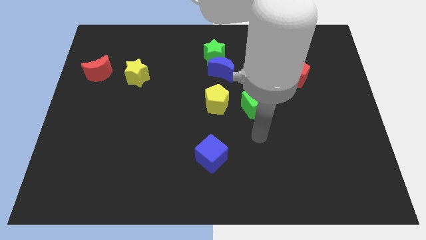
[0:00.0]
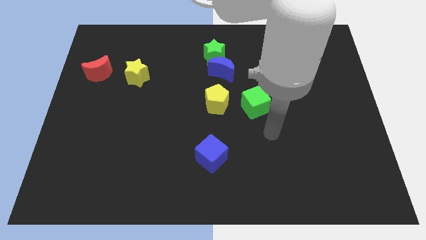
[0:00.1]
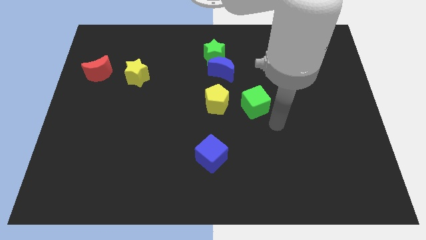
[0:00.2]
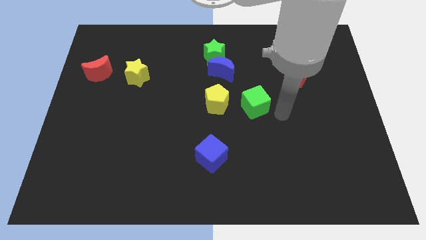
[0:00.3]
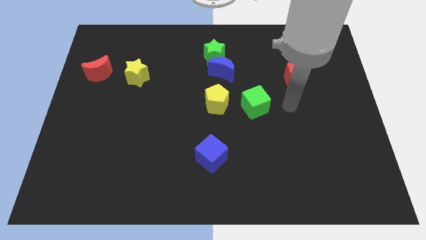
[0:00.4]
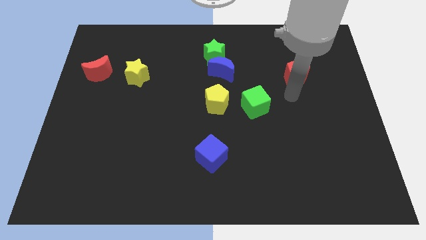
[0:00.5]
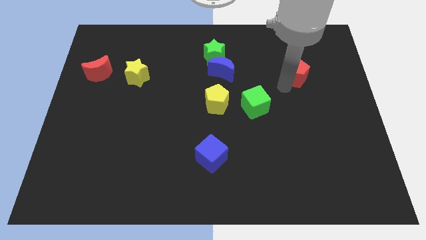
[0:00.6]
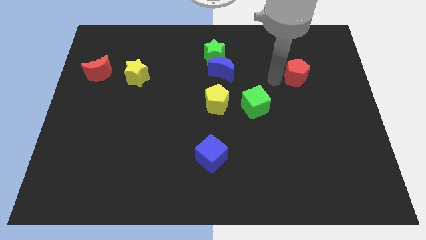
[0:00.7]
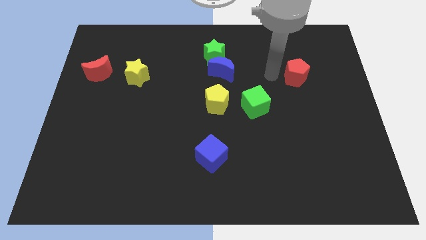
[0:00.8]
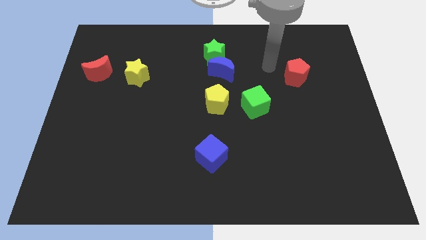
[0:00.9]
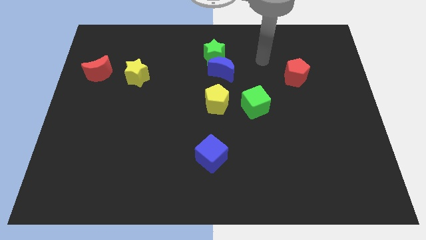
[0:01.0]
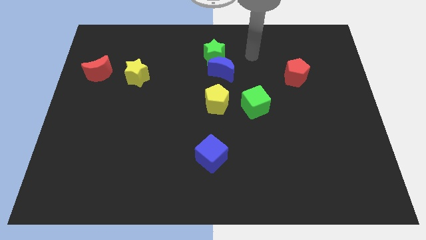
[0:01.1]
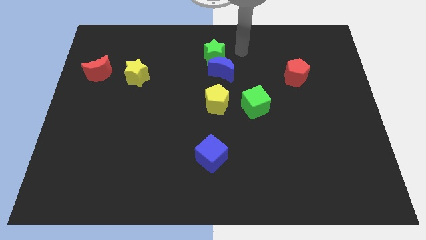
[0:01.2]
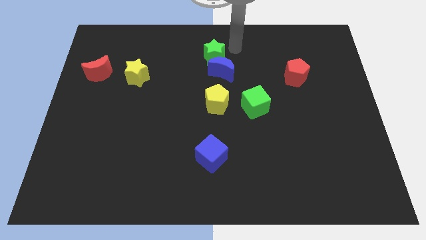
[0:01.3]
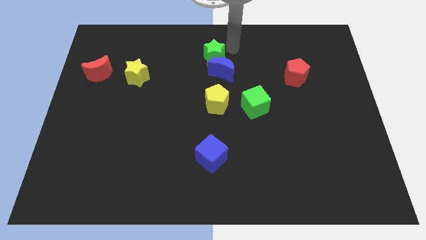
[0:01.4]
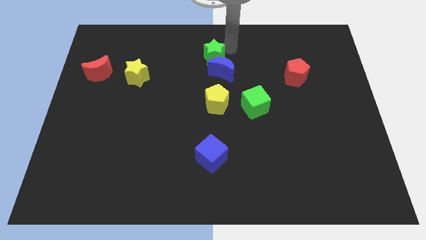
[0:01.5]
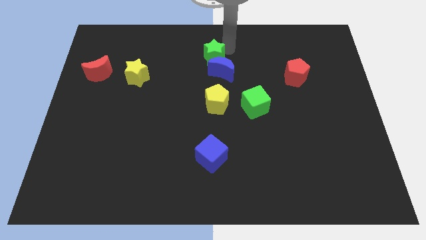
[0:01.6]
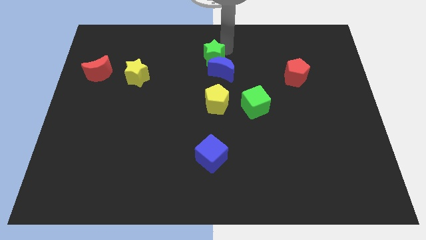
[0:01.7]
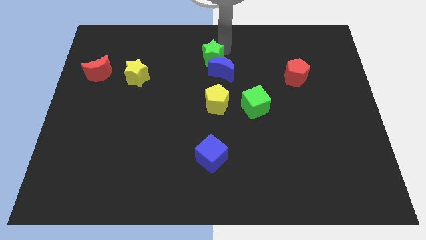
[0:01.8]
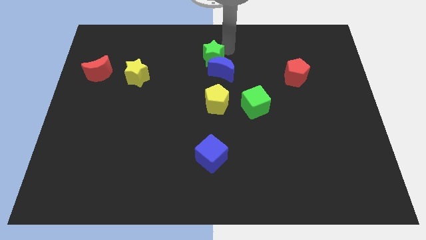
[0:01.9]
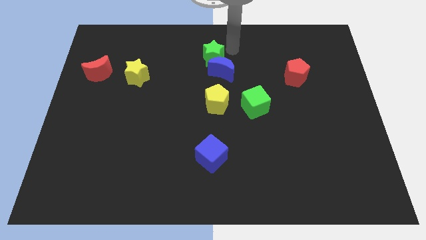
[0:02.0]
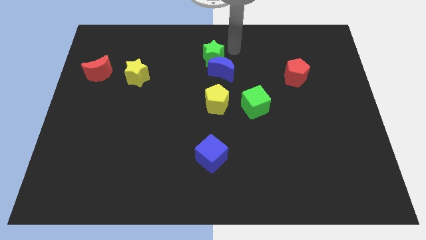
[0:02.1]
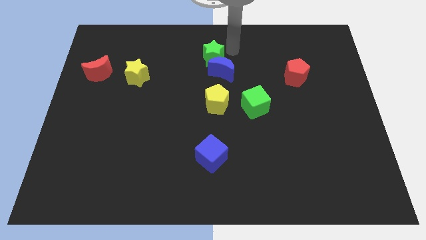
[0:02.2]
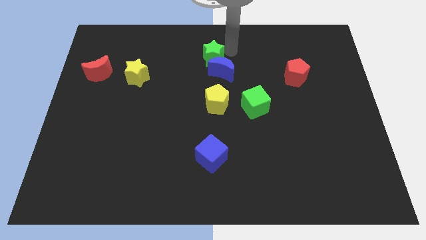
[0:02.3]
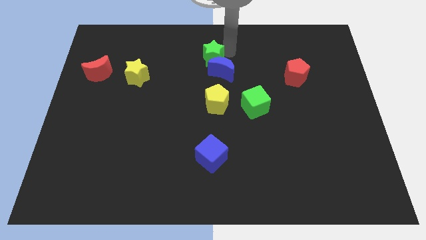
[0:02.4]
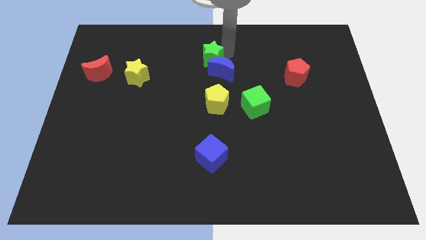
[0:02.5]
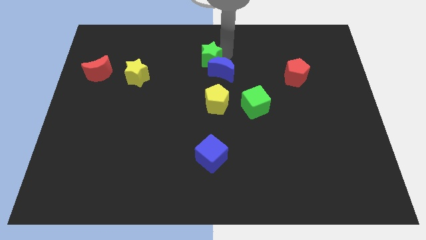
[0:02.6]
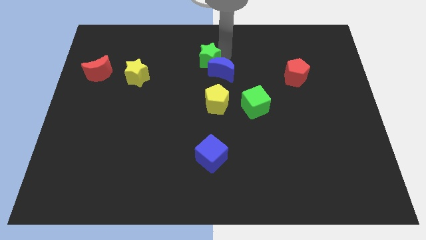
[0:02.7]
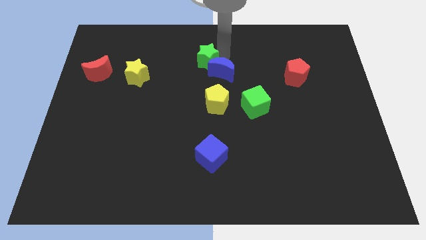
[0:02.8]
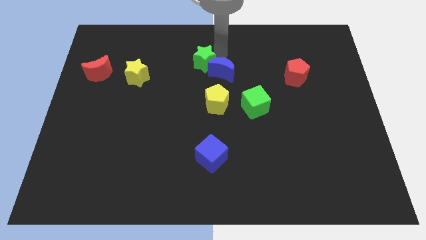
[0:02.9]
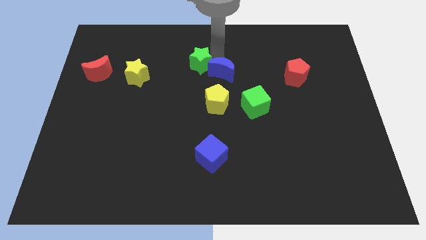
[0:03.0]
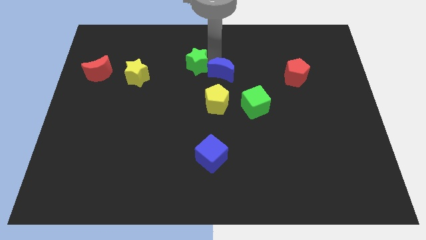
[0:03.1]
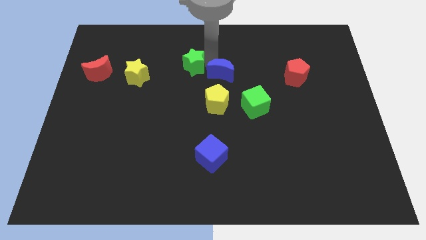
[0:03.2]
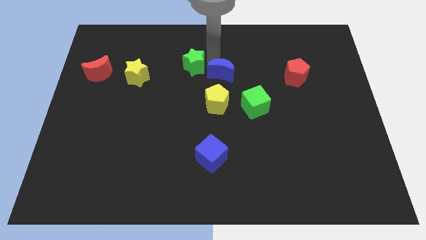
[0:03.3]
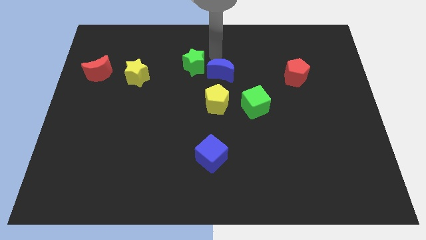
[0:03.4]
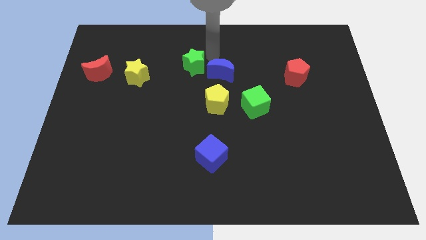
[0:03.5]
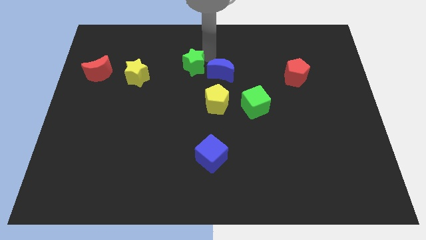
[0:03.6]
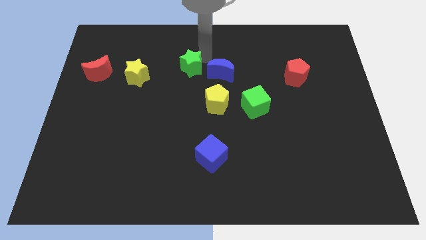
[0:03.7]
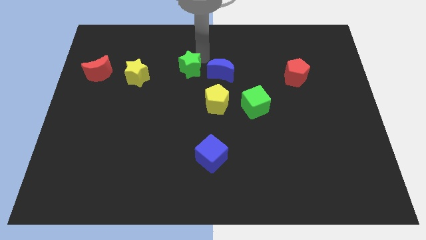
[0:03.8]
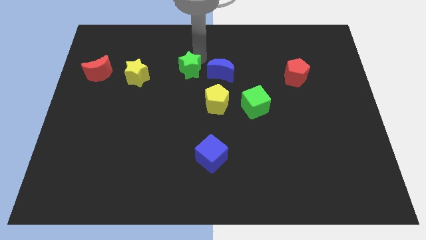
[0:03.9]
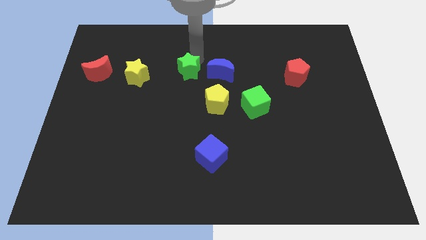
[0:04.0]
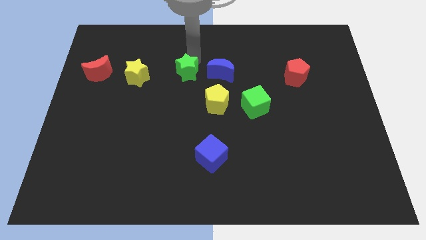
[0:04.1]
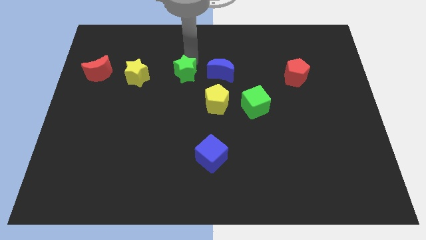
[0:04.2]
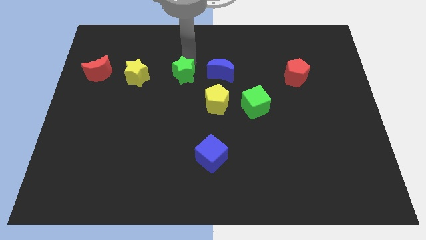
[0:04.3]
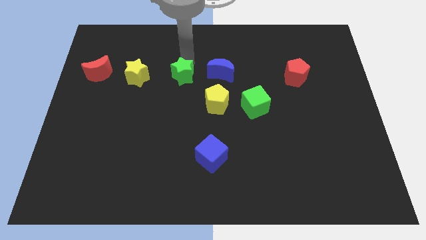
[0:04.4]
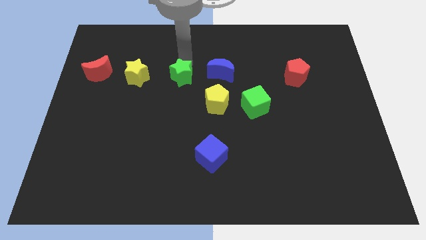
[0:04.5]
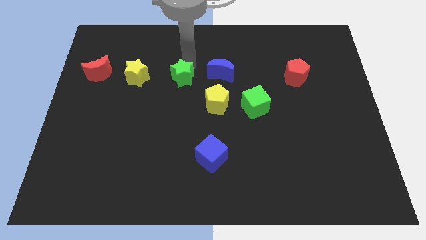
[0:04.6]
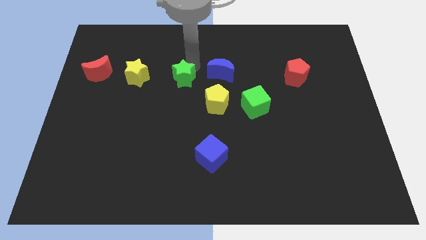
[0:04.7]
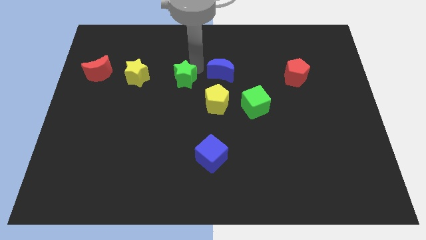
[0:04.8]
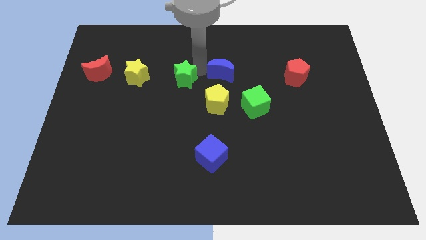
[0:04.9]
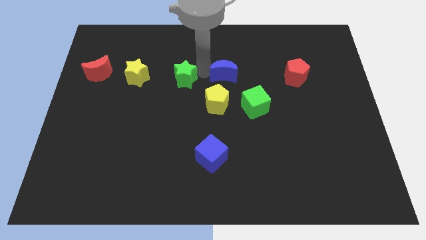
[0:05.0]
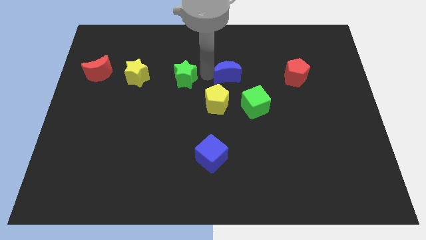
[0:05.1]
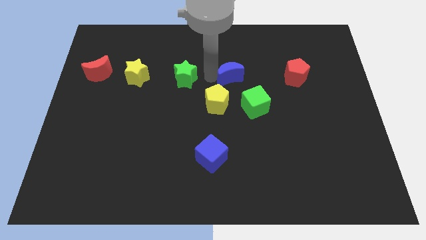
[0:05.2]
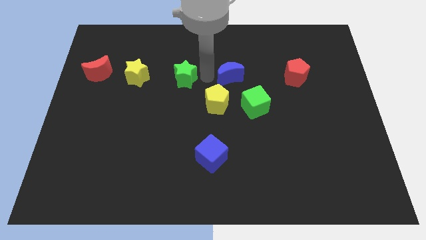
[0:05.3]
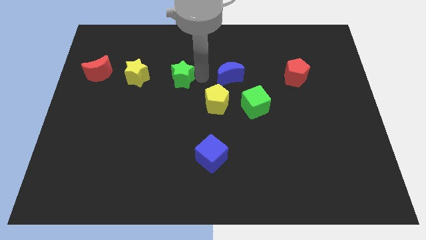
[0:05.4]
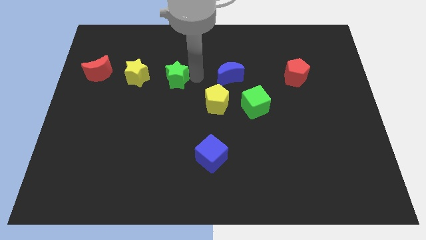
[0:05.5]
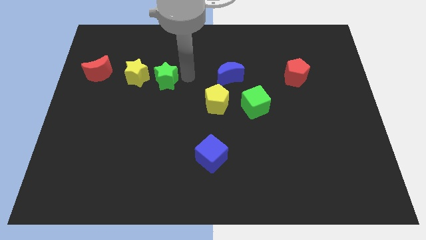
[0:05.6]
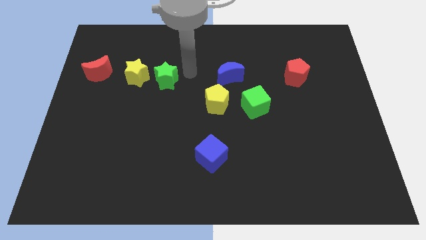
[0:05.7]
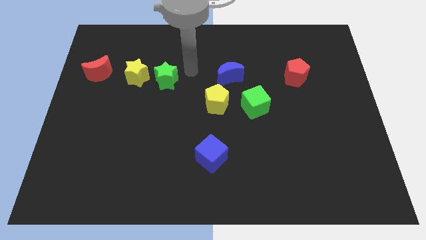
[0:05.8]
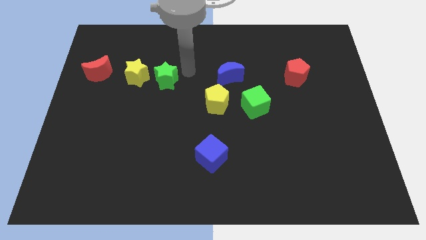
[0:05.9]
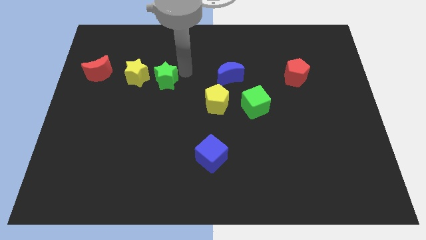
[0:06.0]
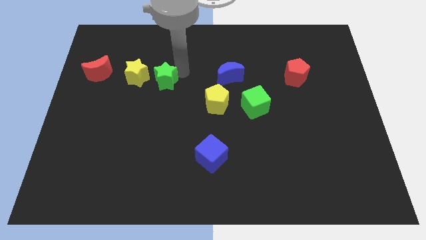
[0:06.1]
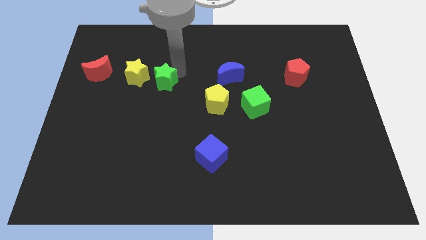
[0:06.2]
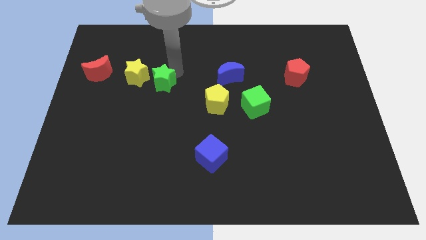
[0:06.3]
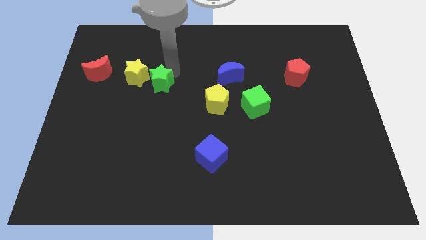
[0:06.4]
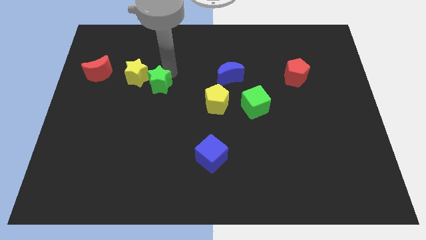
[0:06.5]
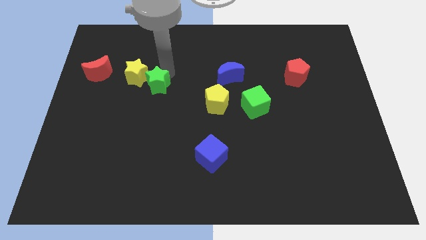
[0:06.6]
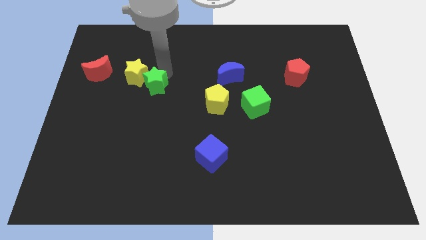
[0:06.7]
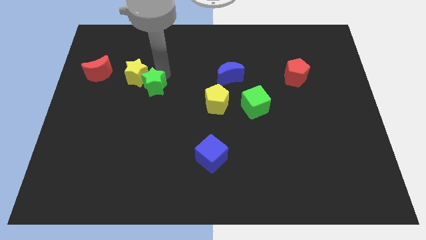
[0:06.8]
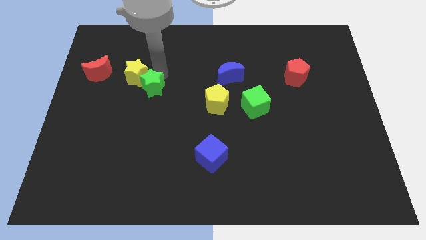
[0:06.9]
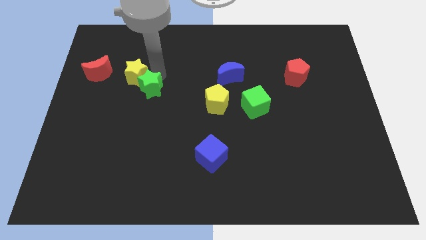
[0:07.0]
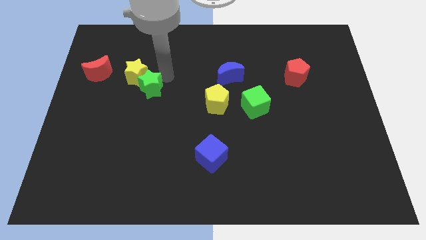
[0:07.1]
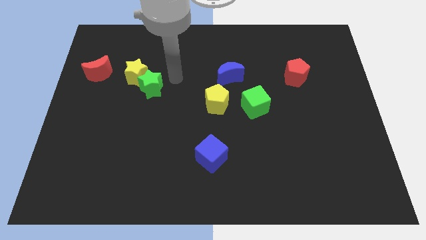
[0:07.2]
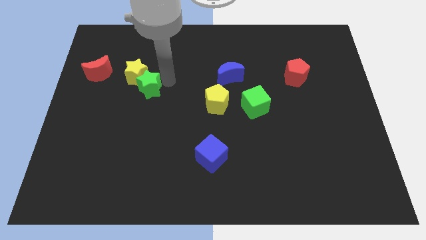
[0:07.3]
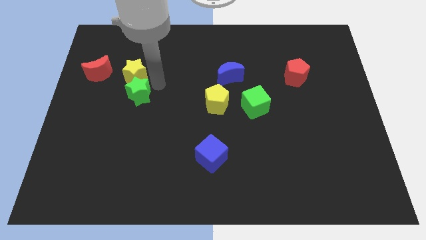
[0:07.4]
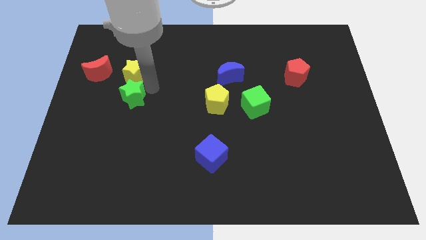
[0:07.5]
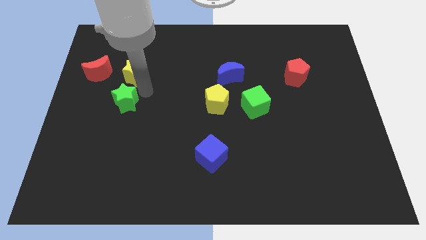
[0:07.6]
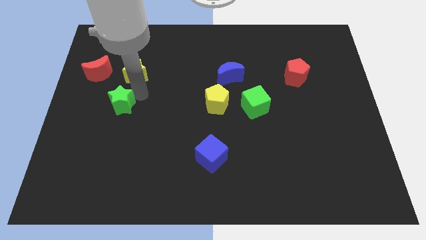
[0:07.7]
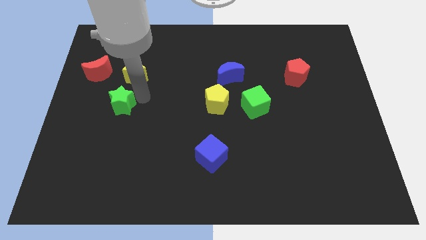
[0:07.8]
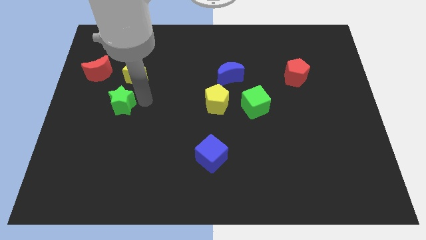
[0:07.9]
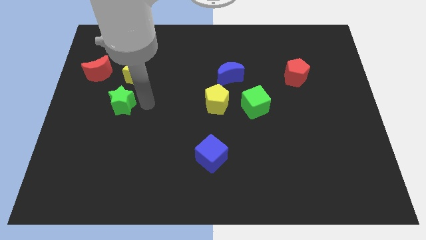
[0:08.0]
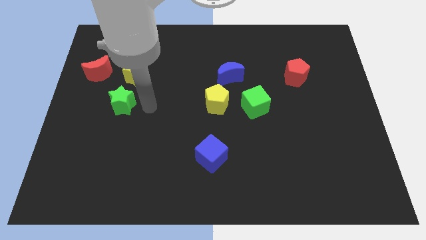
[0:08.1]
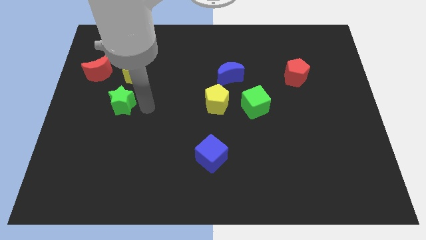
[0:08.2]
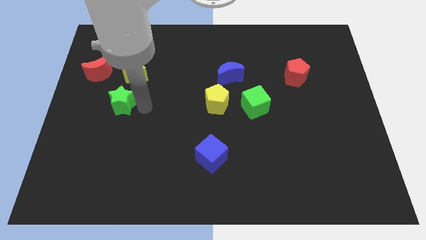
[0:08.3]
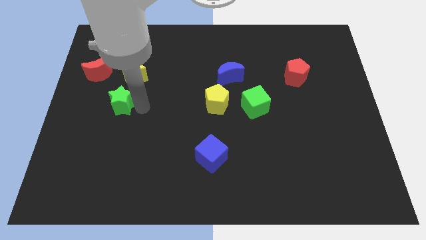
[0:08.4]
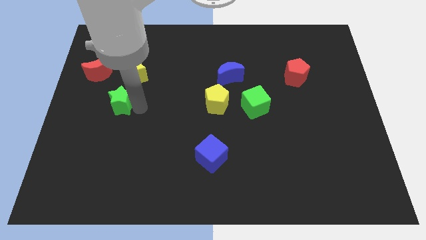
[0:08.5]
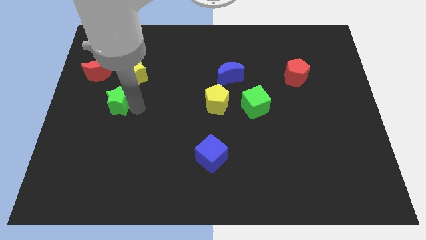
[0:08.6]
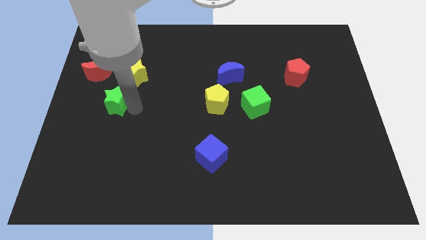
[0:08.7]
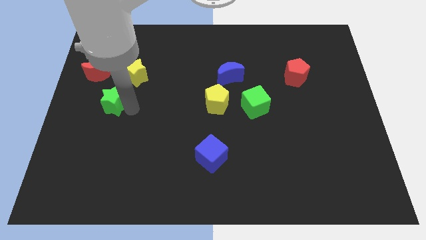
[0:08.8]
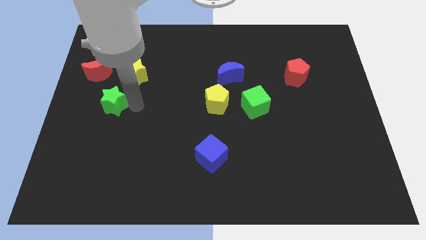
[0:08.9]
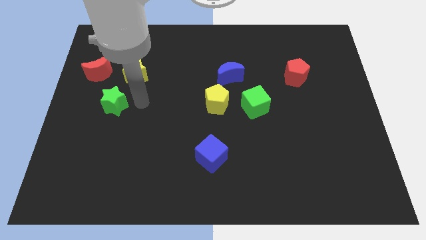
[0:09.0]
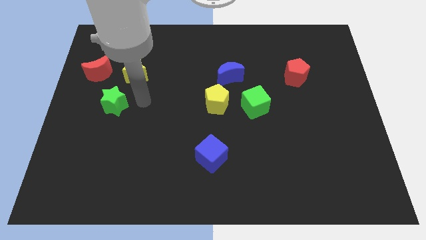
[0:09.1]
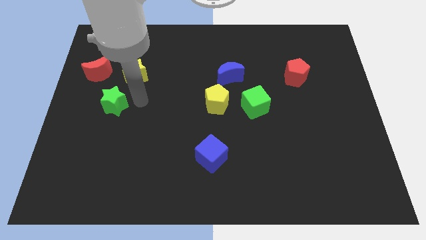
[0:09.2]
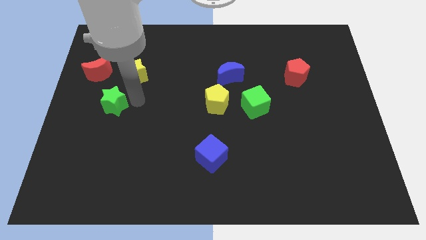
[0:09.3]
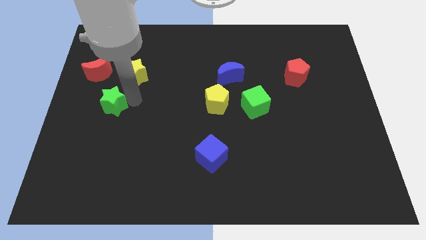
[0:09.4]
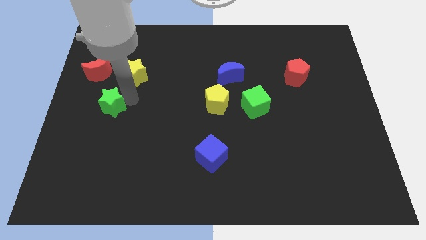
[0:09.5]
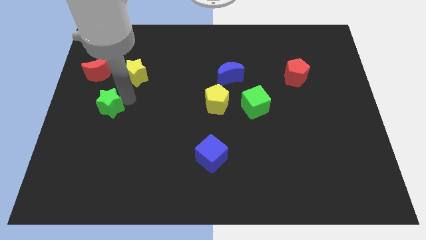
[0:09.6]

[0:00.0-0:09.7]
slide the green star to the bottom of the red moon
